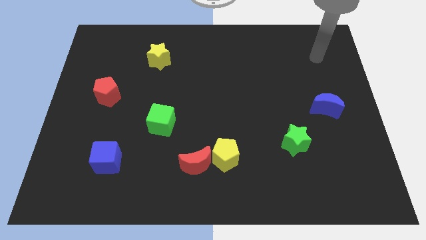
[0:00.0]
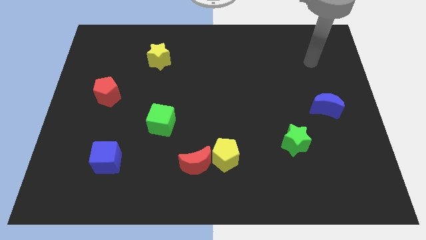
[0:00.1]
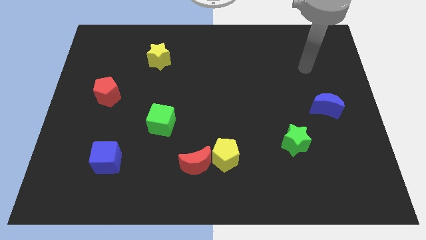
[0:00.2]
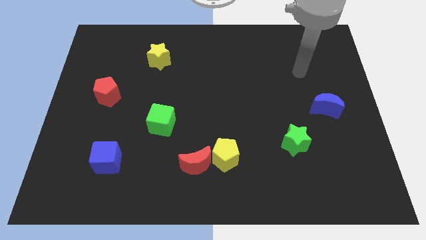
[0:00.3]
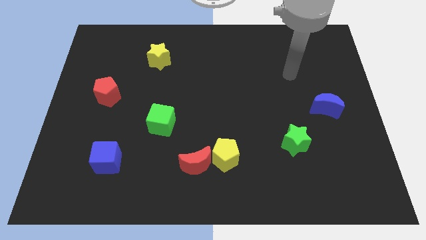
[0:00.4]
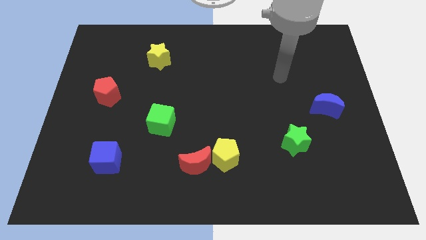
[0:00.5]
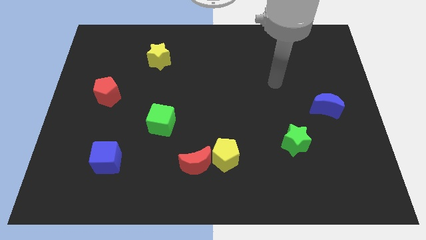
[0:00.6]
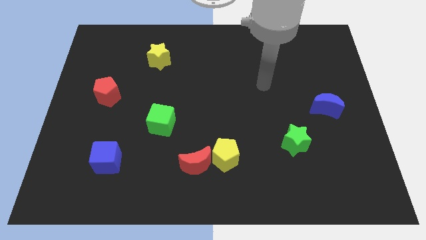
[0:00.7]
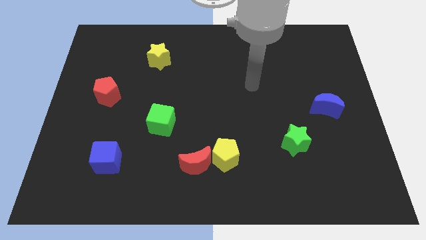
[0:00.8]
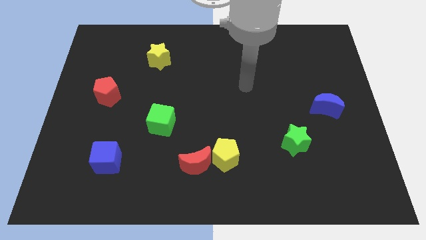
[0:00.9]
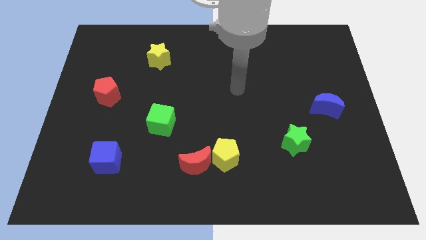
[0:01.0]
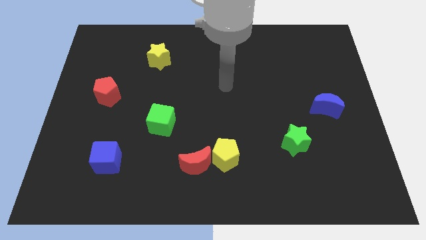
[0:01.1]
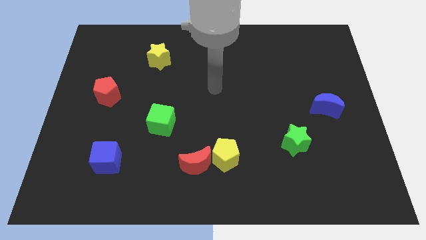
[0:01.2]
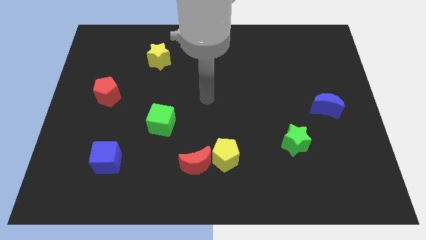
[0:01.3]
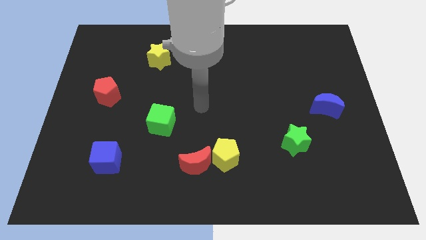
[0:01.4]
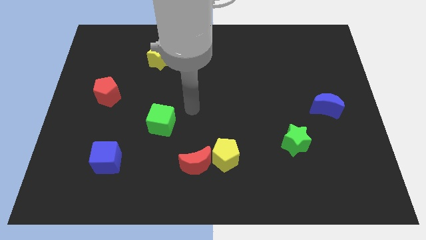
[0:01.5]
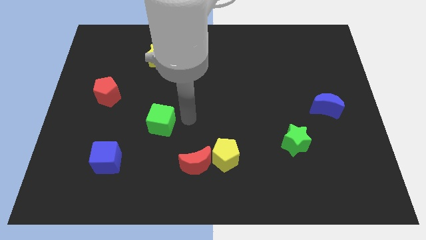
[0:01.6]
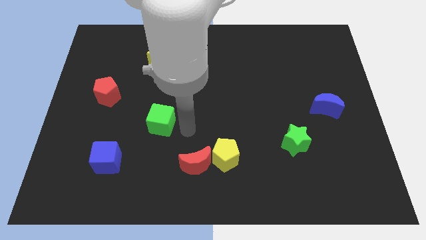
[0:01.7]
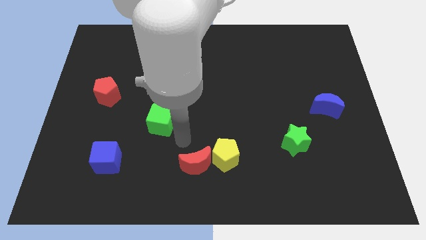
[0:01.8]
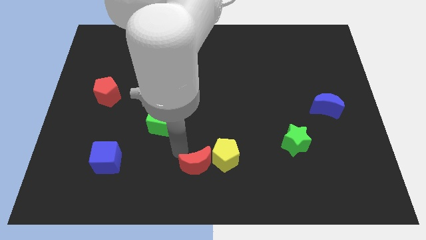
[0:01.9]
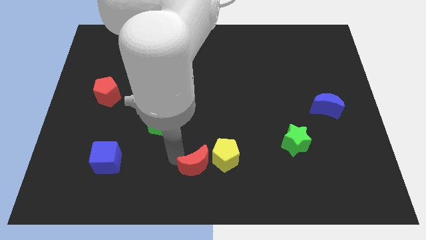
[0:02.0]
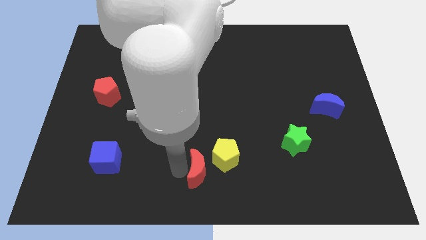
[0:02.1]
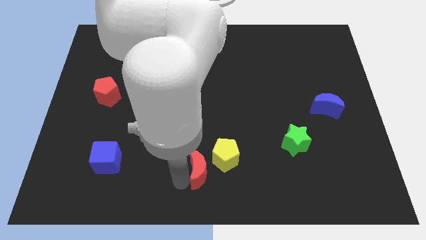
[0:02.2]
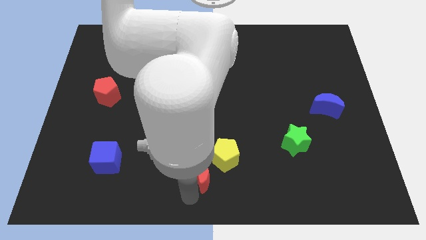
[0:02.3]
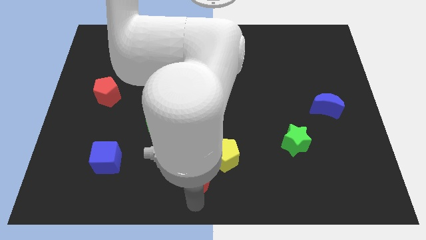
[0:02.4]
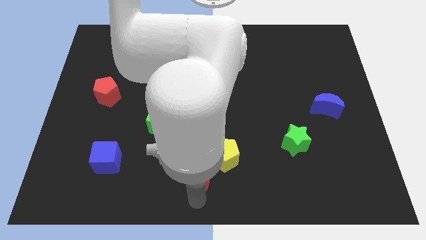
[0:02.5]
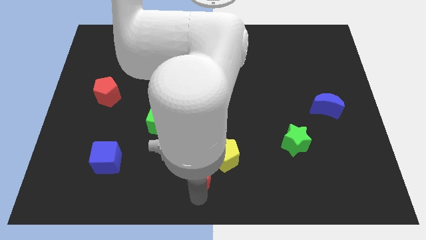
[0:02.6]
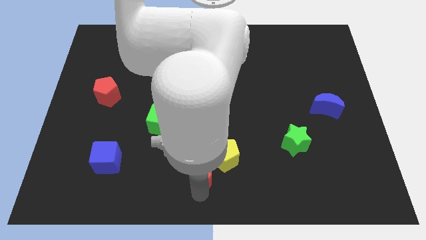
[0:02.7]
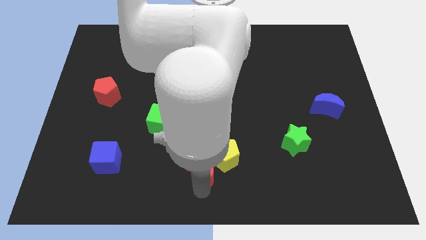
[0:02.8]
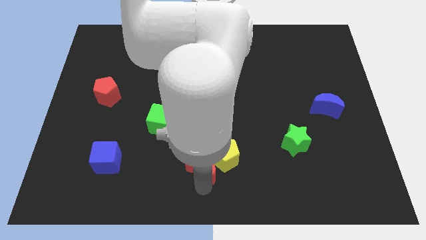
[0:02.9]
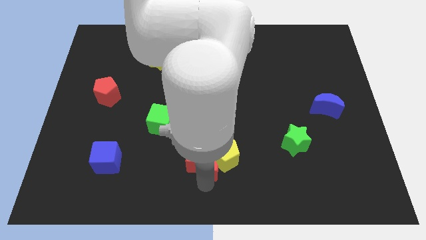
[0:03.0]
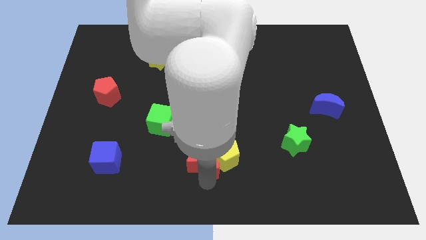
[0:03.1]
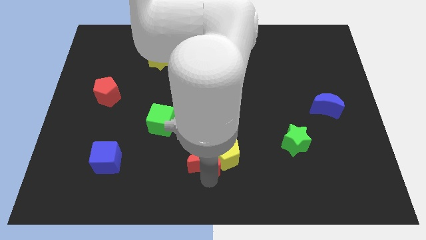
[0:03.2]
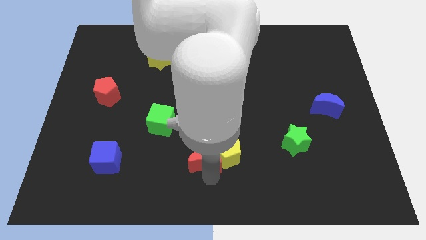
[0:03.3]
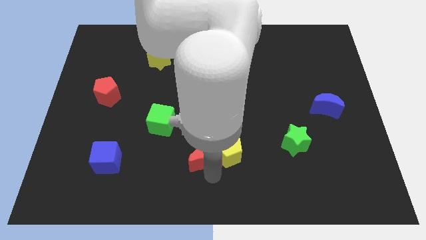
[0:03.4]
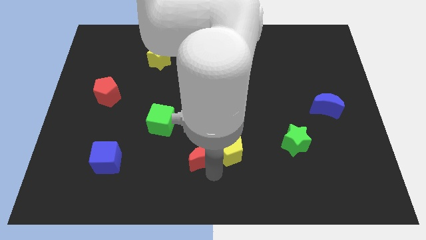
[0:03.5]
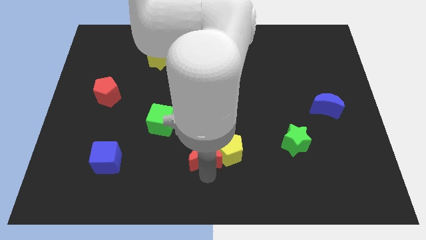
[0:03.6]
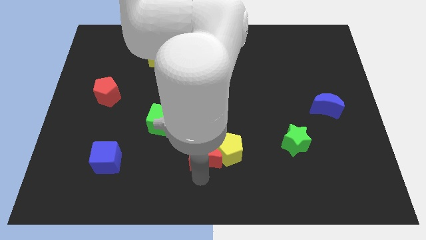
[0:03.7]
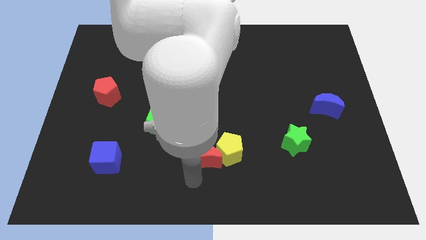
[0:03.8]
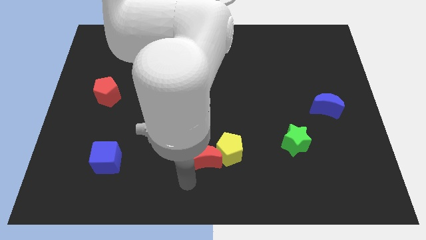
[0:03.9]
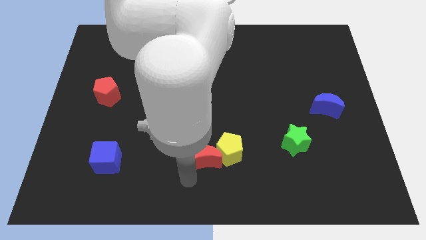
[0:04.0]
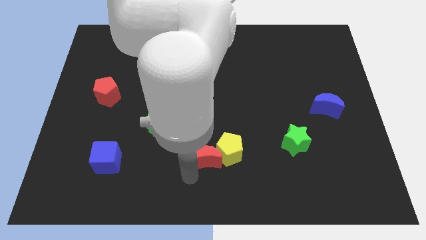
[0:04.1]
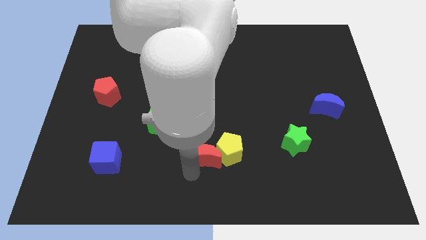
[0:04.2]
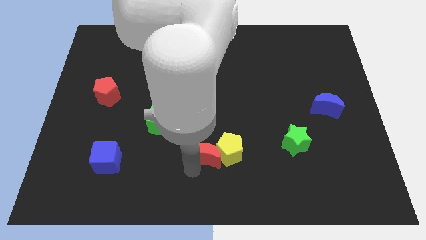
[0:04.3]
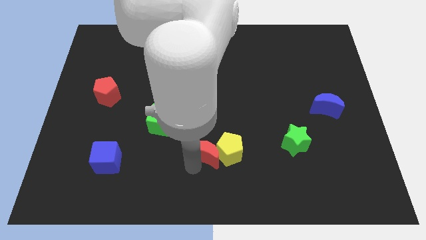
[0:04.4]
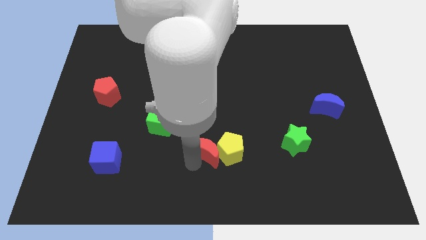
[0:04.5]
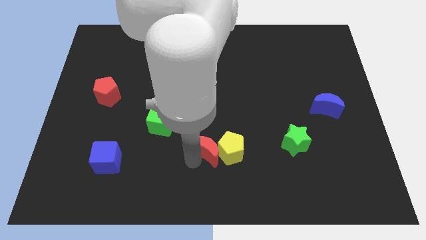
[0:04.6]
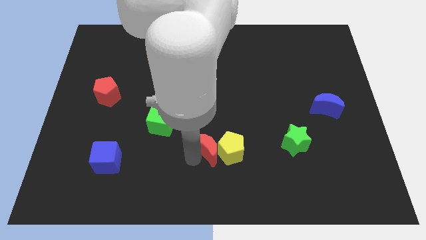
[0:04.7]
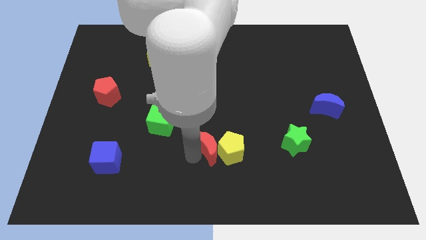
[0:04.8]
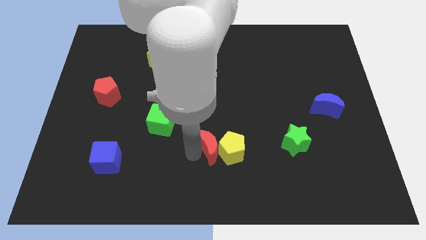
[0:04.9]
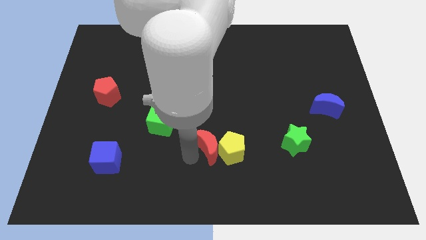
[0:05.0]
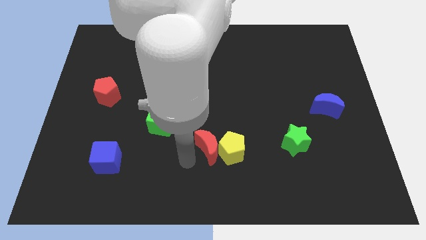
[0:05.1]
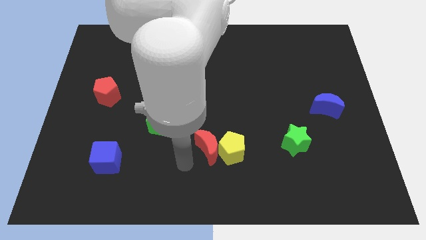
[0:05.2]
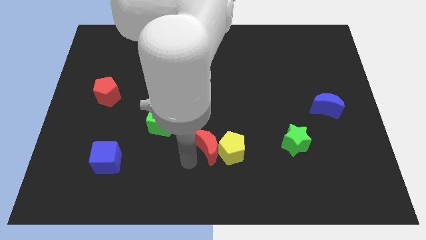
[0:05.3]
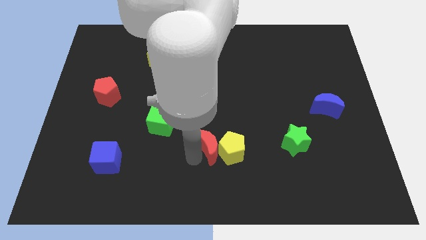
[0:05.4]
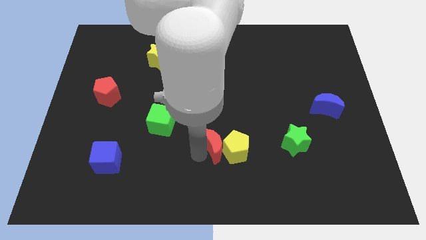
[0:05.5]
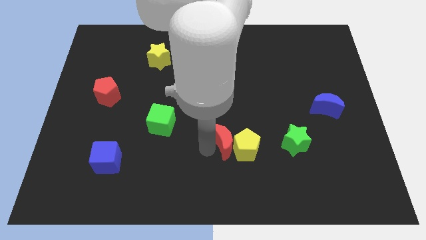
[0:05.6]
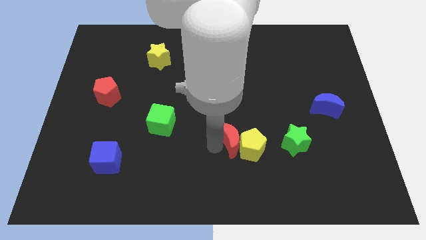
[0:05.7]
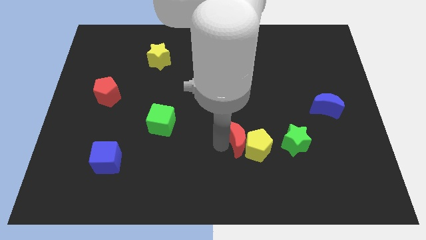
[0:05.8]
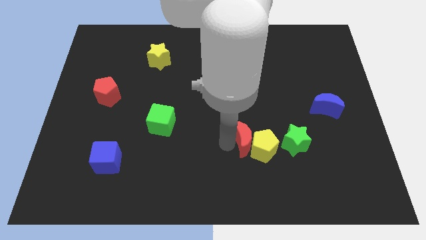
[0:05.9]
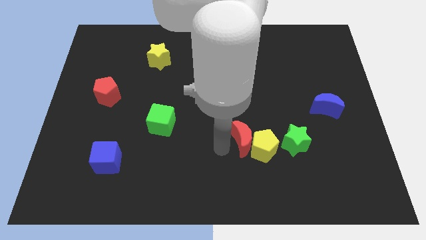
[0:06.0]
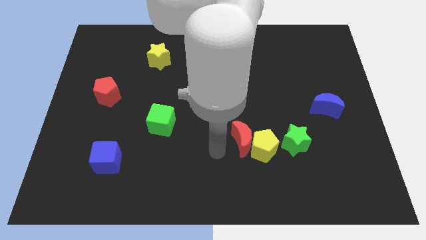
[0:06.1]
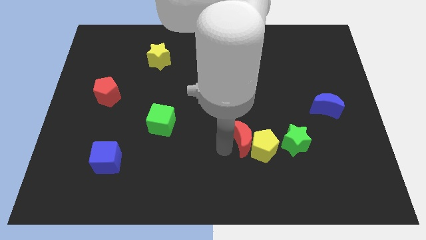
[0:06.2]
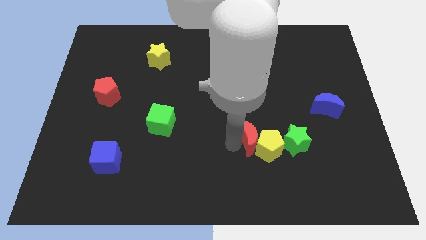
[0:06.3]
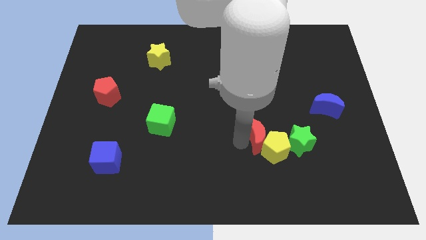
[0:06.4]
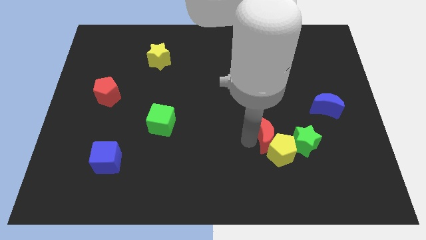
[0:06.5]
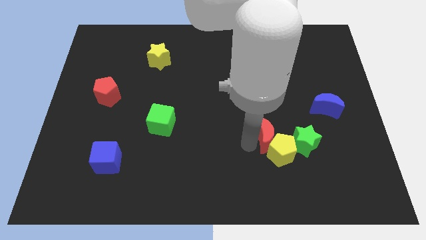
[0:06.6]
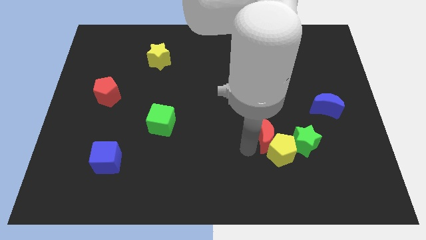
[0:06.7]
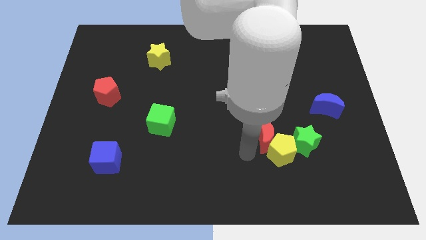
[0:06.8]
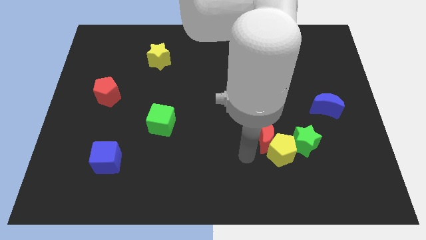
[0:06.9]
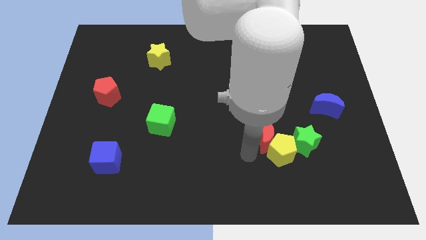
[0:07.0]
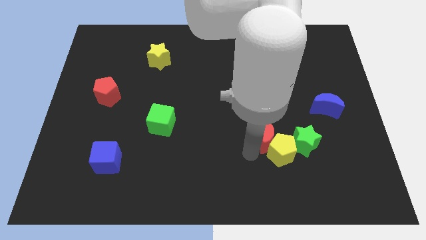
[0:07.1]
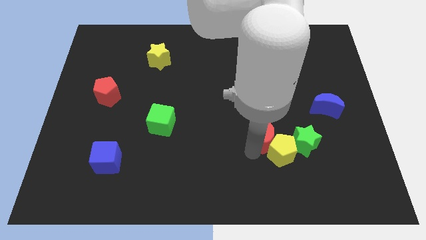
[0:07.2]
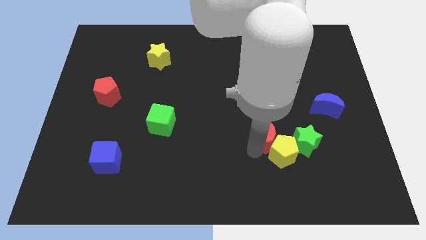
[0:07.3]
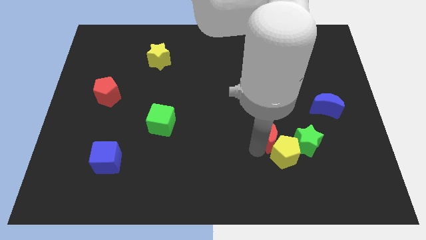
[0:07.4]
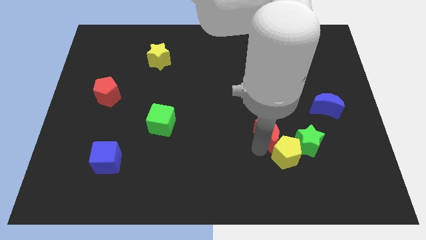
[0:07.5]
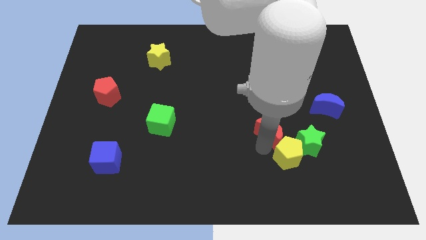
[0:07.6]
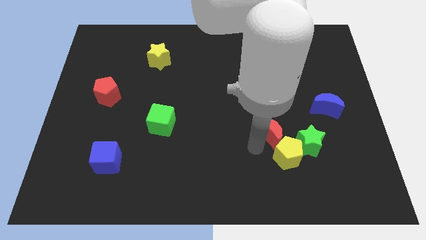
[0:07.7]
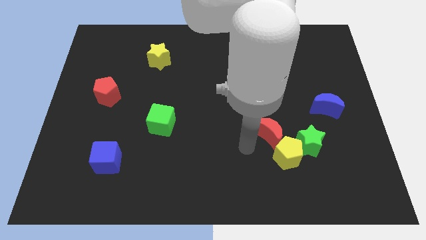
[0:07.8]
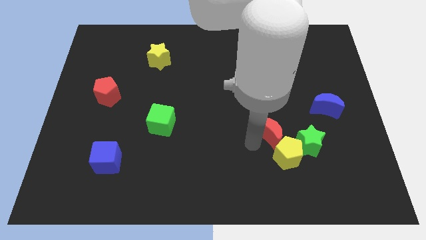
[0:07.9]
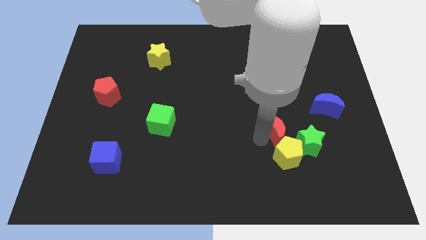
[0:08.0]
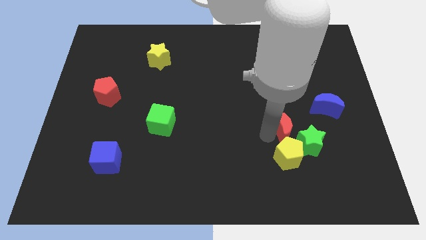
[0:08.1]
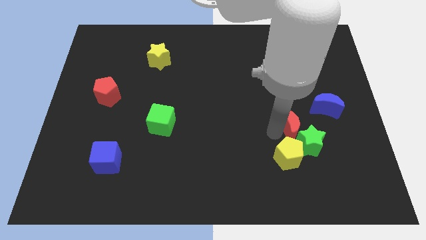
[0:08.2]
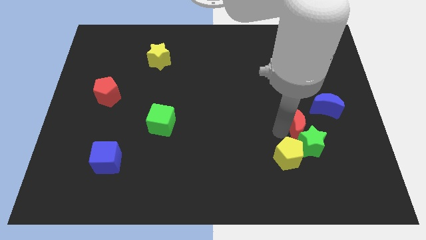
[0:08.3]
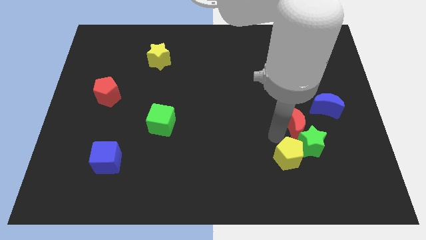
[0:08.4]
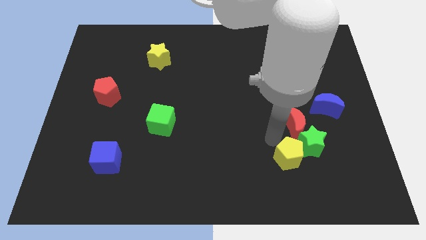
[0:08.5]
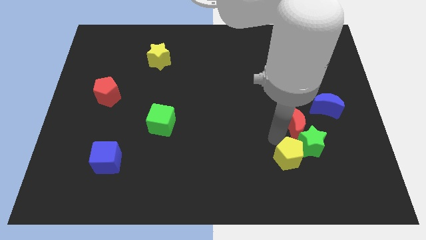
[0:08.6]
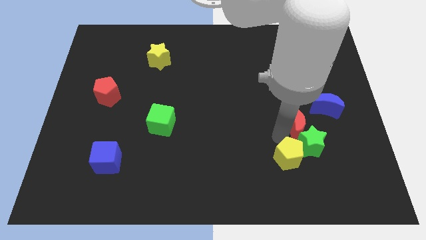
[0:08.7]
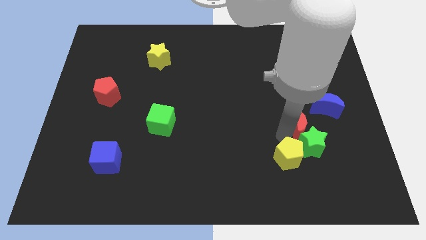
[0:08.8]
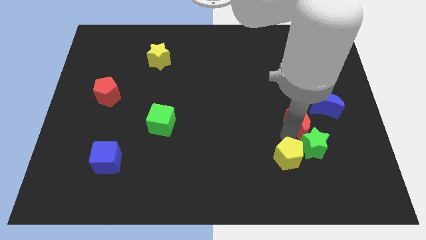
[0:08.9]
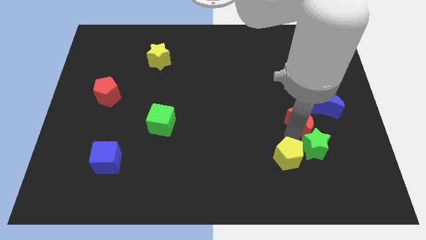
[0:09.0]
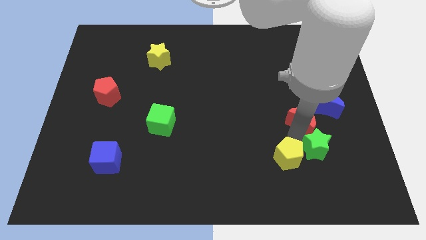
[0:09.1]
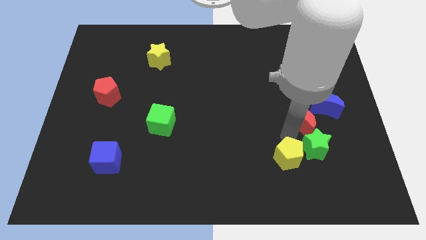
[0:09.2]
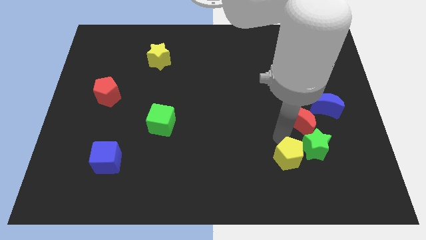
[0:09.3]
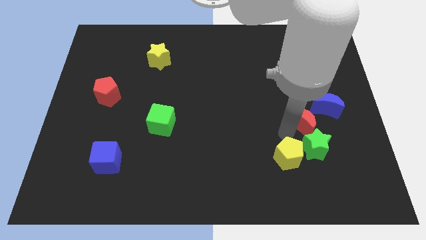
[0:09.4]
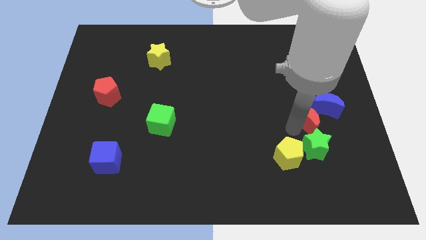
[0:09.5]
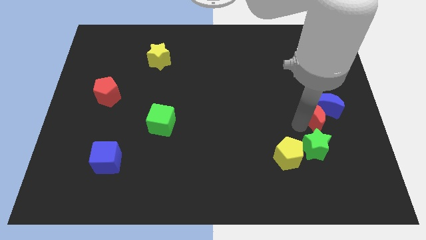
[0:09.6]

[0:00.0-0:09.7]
push the red moon next to the blue moon
